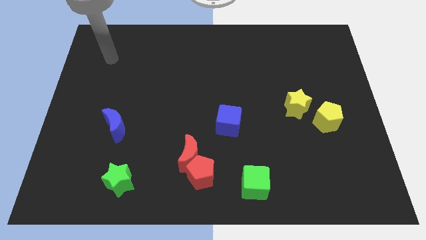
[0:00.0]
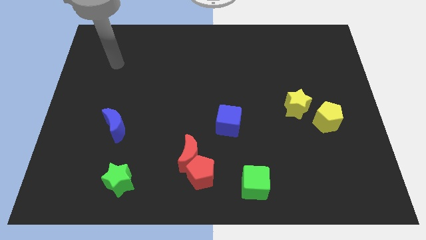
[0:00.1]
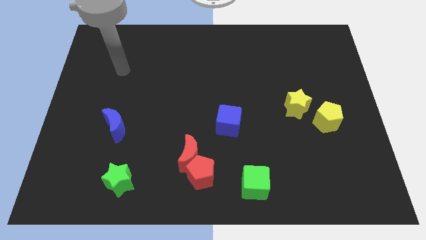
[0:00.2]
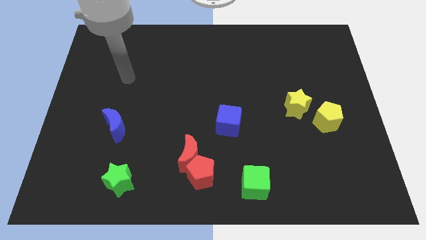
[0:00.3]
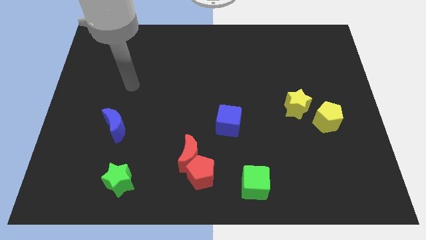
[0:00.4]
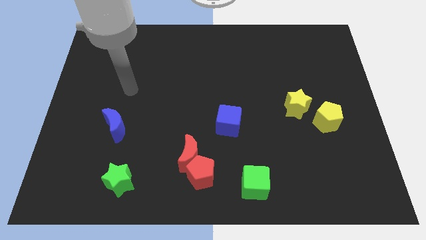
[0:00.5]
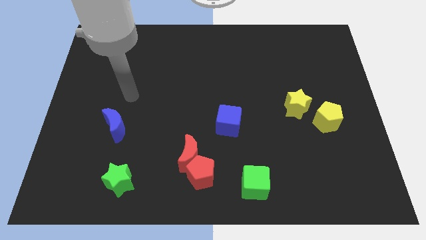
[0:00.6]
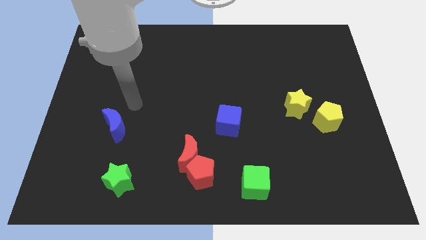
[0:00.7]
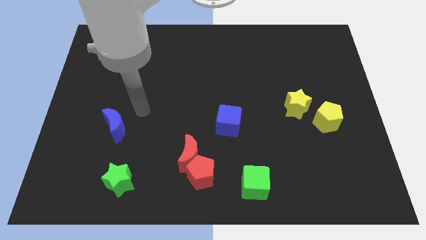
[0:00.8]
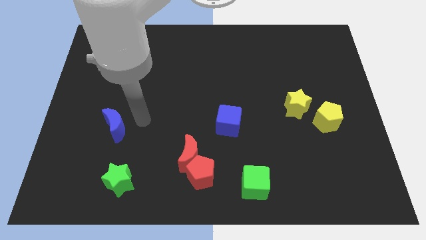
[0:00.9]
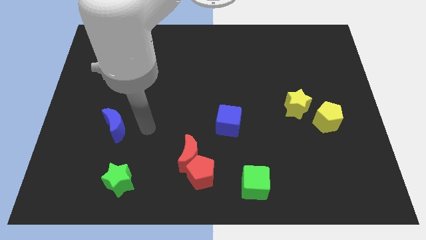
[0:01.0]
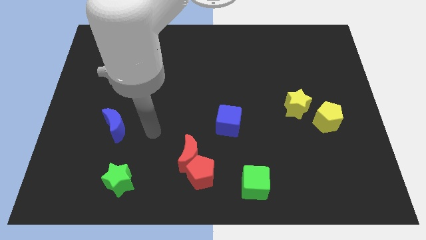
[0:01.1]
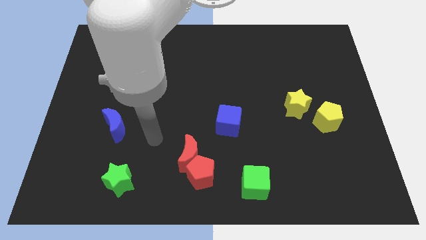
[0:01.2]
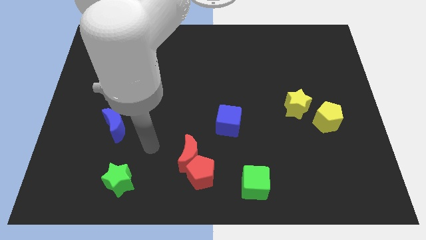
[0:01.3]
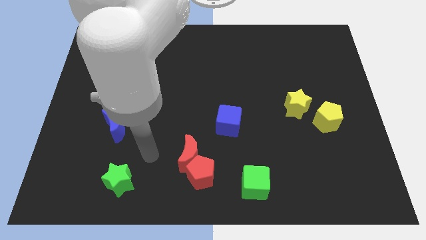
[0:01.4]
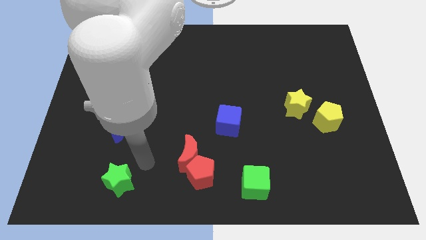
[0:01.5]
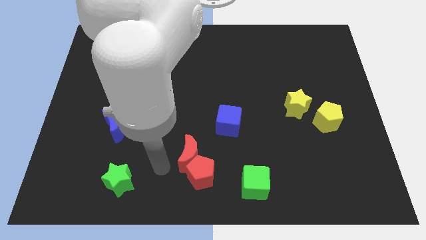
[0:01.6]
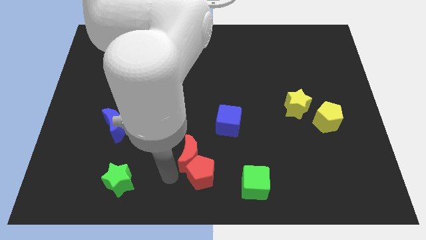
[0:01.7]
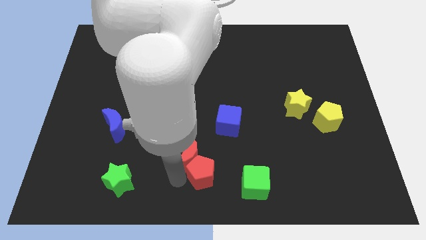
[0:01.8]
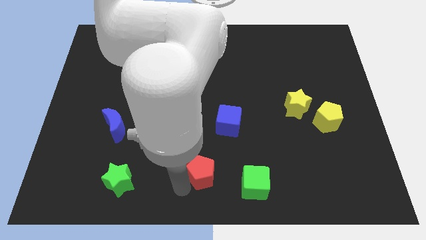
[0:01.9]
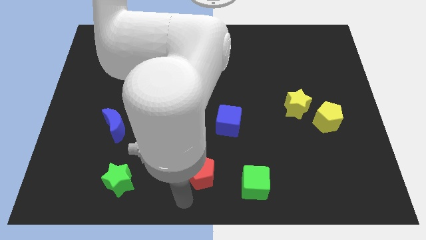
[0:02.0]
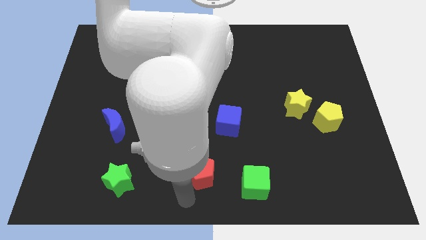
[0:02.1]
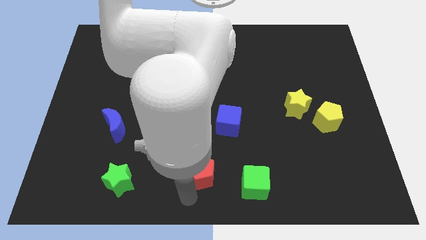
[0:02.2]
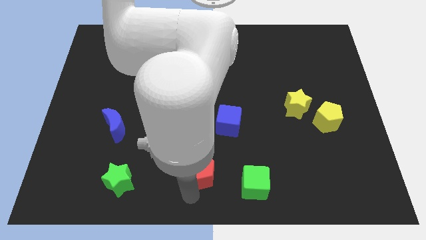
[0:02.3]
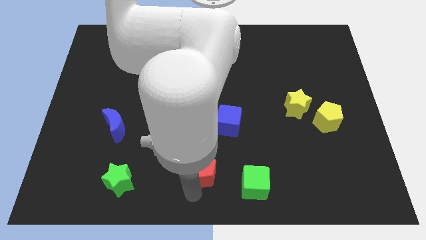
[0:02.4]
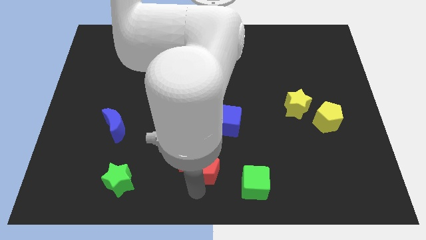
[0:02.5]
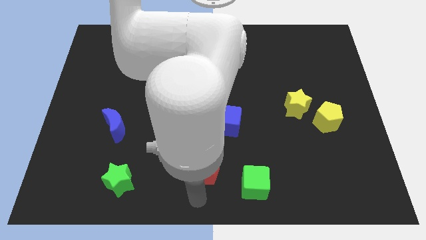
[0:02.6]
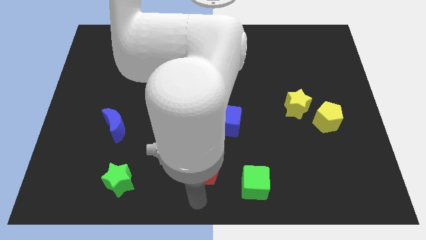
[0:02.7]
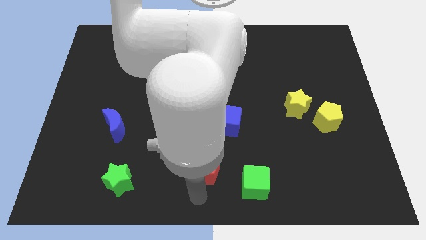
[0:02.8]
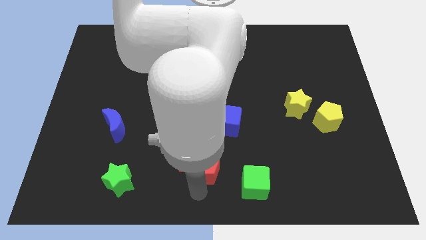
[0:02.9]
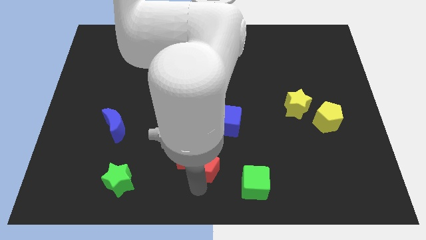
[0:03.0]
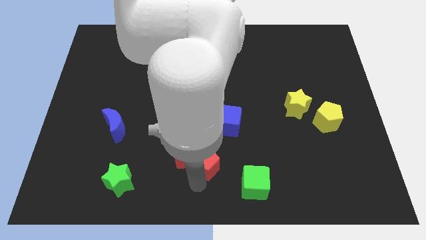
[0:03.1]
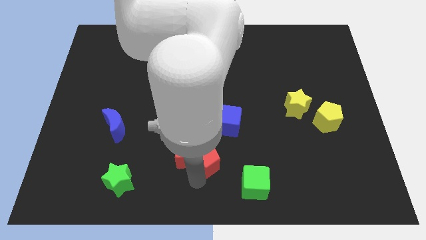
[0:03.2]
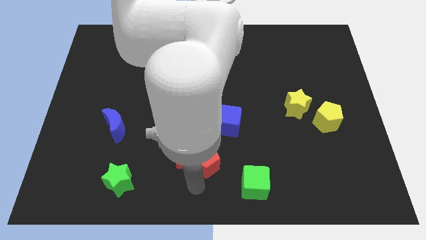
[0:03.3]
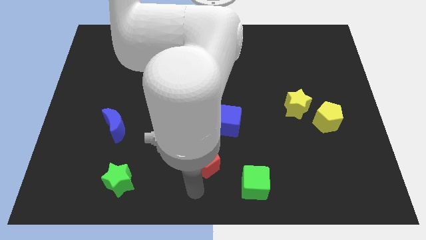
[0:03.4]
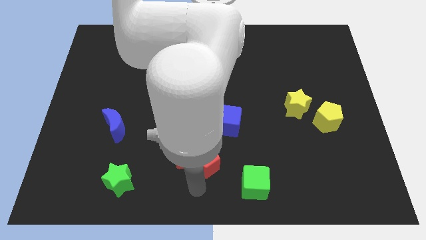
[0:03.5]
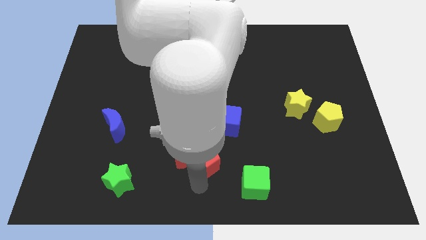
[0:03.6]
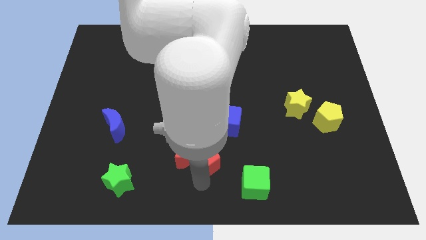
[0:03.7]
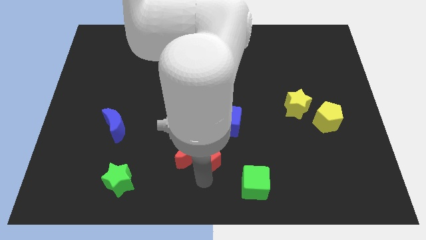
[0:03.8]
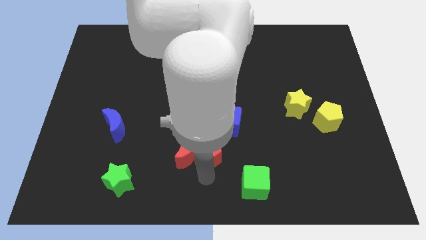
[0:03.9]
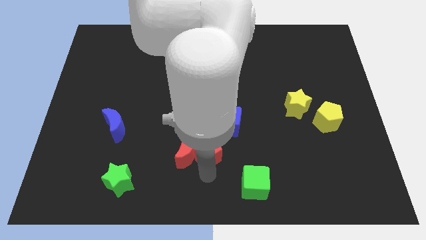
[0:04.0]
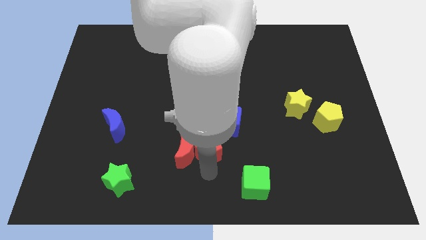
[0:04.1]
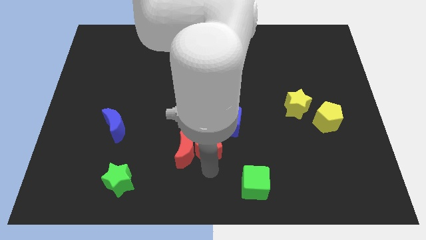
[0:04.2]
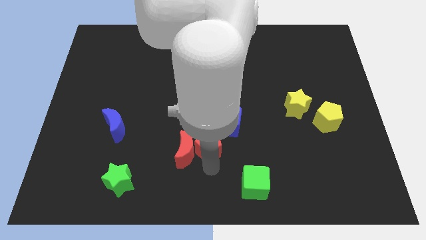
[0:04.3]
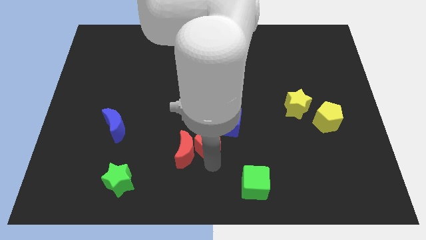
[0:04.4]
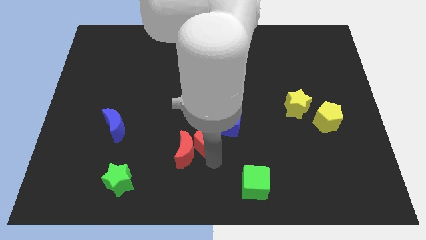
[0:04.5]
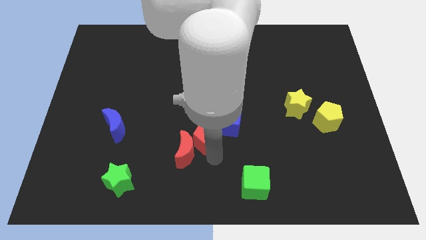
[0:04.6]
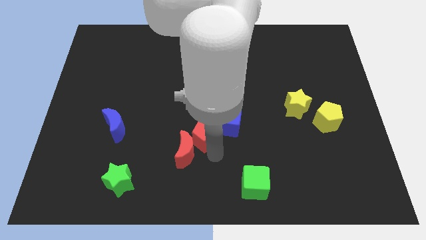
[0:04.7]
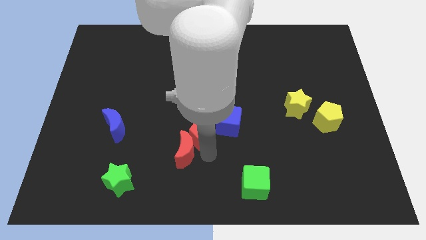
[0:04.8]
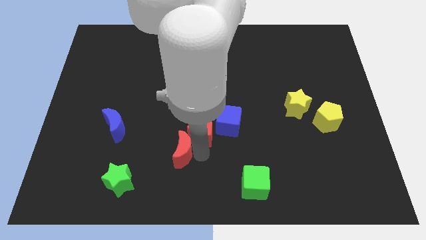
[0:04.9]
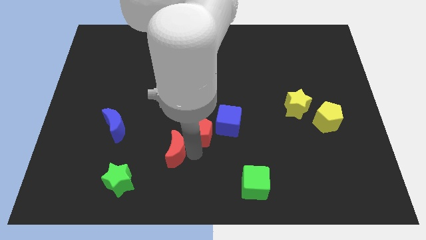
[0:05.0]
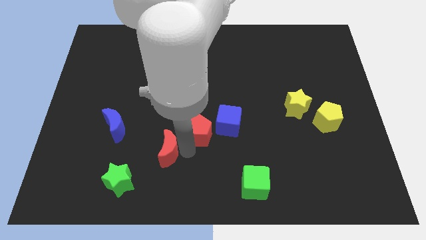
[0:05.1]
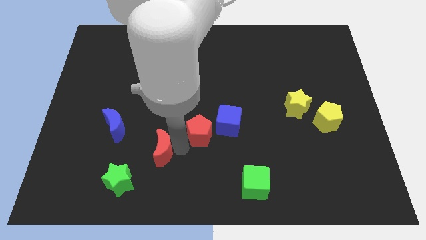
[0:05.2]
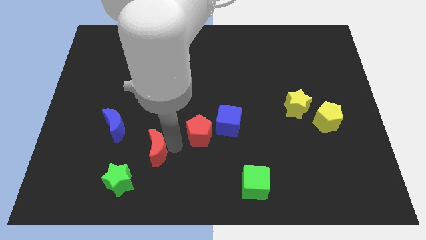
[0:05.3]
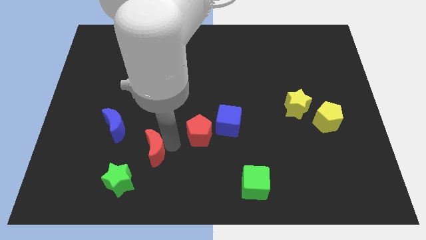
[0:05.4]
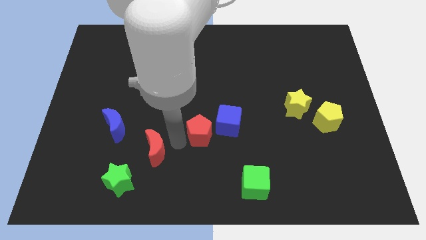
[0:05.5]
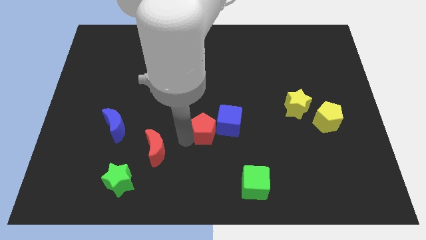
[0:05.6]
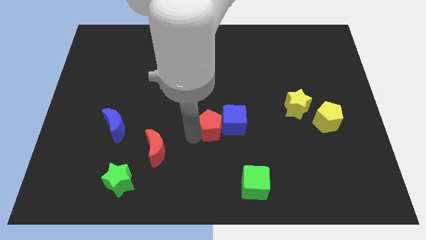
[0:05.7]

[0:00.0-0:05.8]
move the red pentagon towards the blue cube

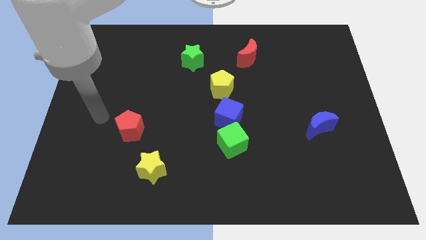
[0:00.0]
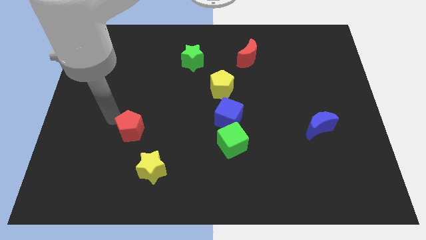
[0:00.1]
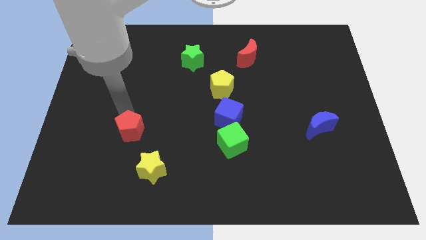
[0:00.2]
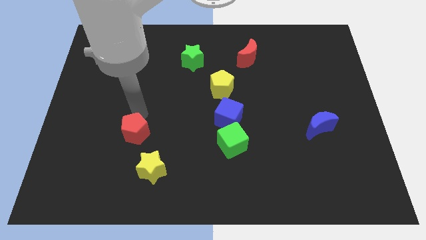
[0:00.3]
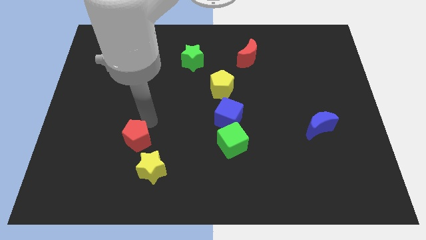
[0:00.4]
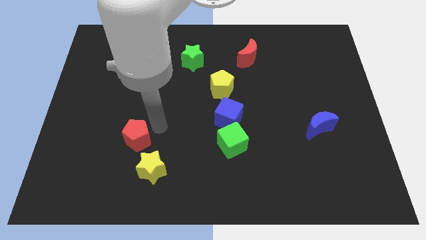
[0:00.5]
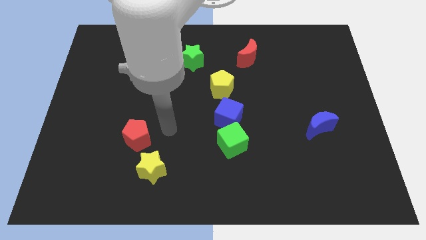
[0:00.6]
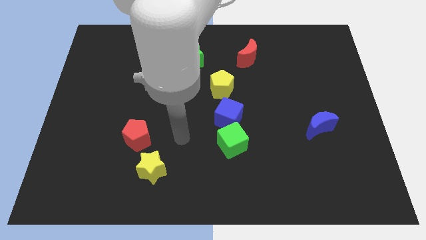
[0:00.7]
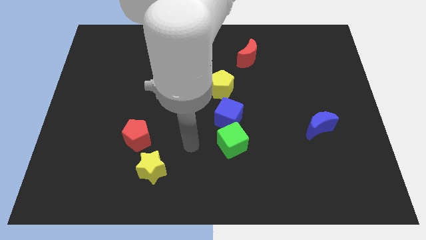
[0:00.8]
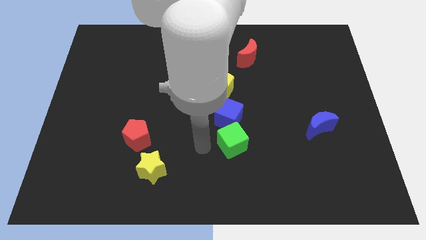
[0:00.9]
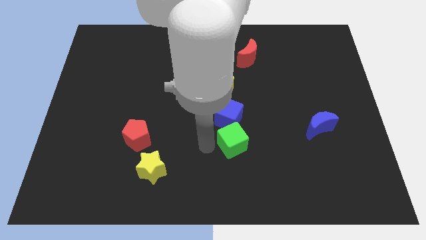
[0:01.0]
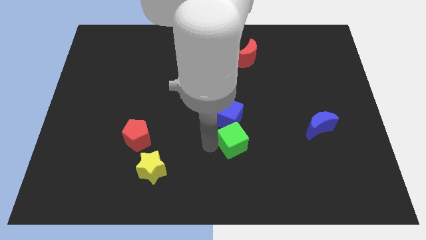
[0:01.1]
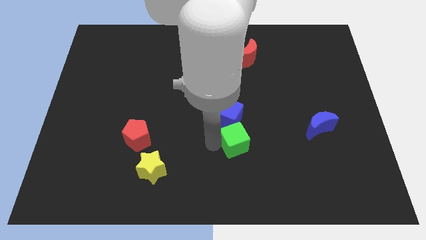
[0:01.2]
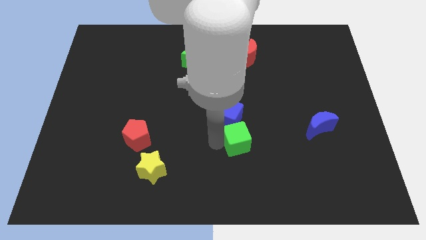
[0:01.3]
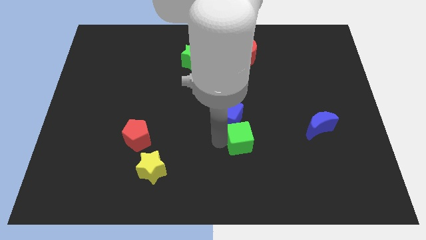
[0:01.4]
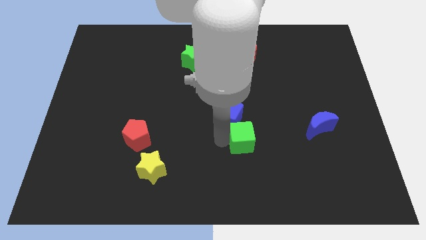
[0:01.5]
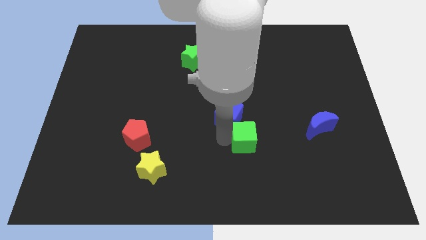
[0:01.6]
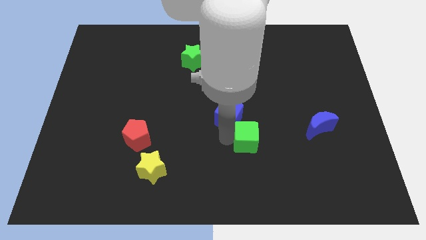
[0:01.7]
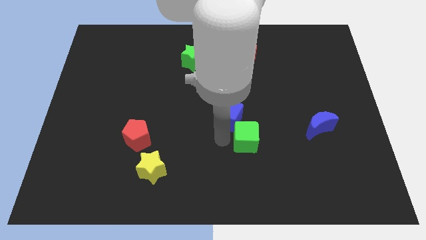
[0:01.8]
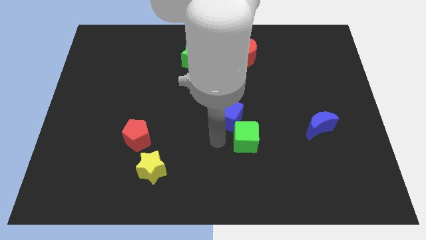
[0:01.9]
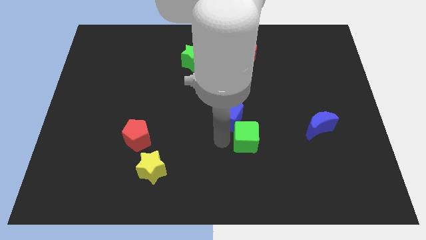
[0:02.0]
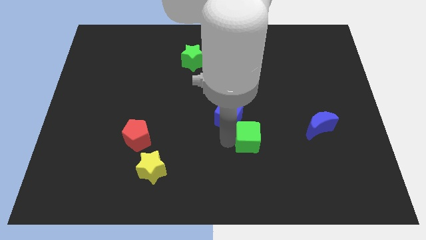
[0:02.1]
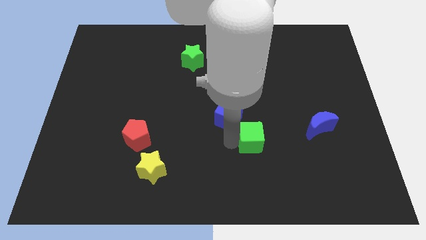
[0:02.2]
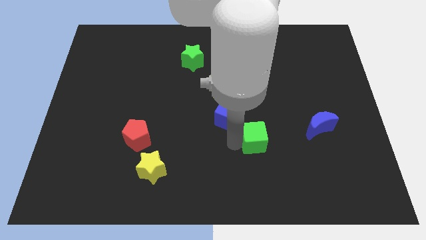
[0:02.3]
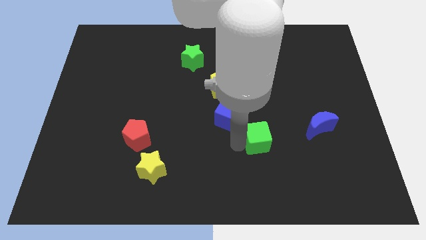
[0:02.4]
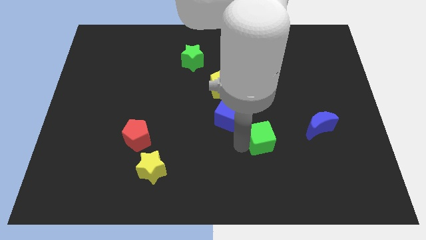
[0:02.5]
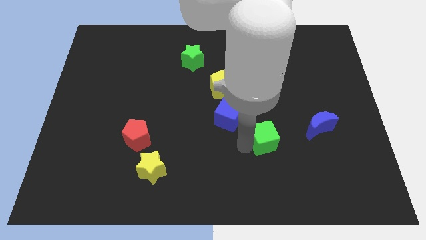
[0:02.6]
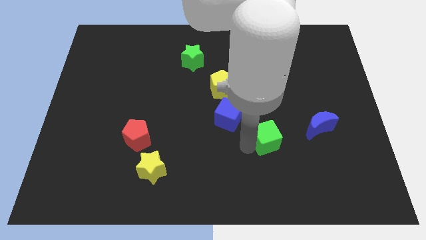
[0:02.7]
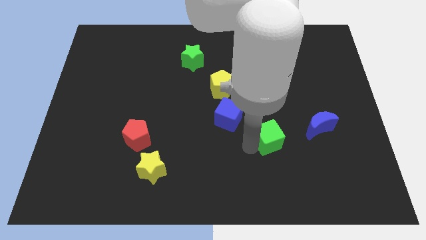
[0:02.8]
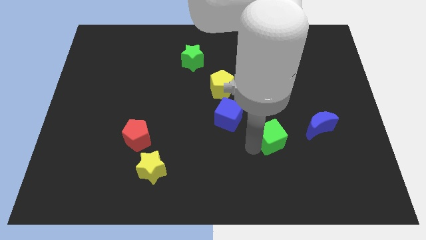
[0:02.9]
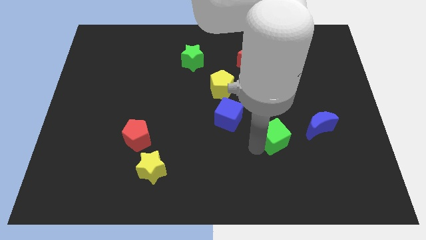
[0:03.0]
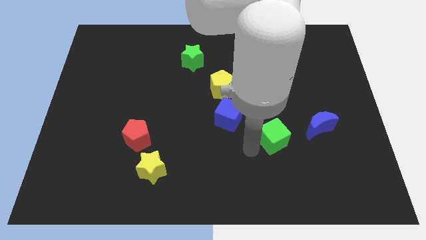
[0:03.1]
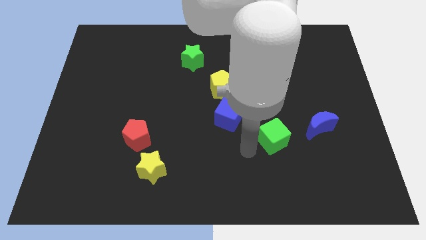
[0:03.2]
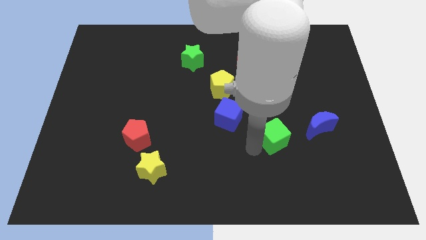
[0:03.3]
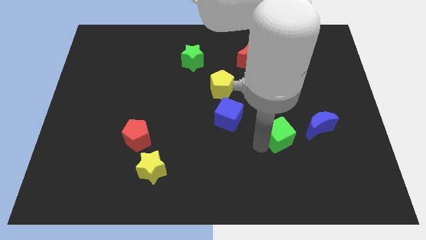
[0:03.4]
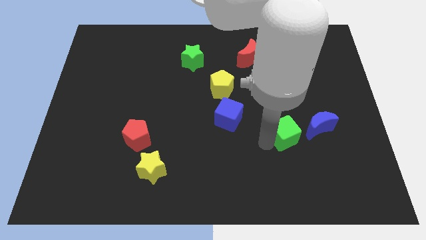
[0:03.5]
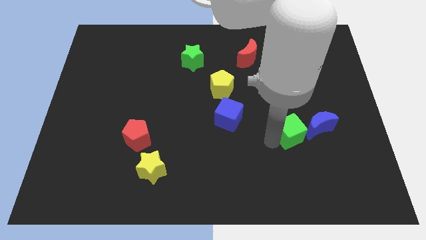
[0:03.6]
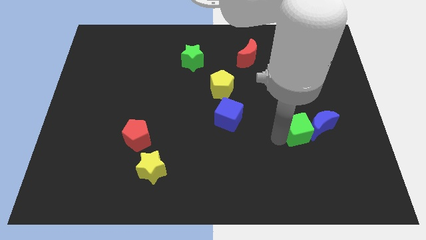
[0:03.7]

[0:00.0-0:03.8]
push the green cube towards the blue moon
